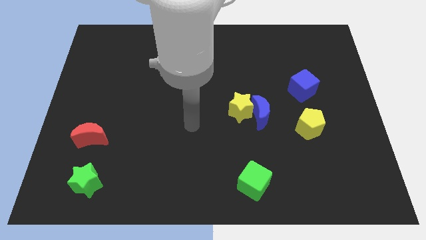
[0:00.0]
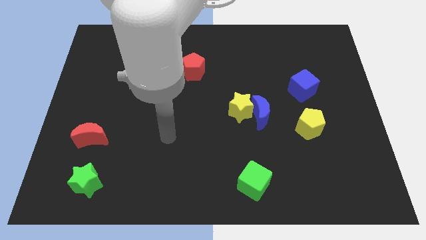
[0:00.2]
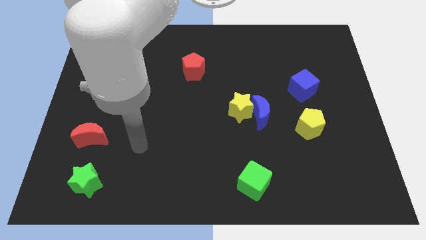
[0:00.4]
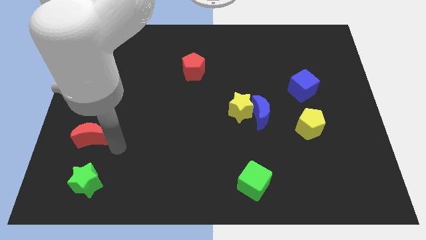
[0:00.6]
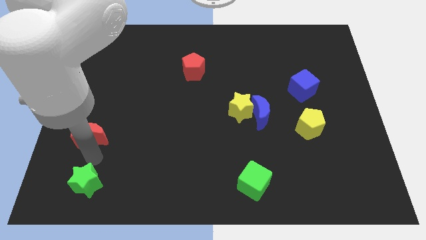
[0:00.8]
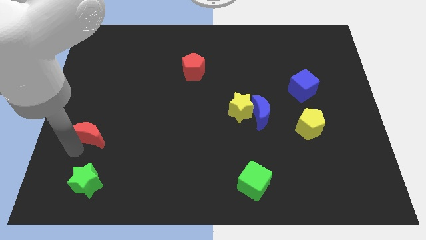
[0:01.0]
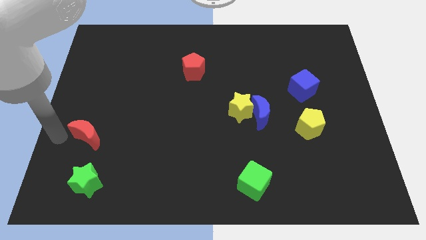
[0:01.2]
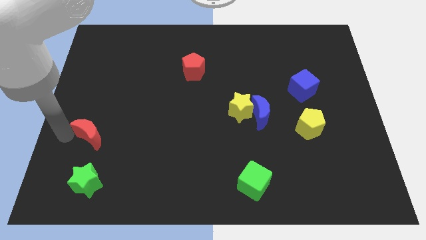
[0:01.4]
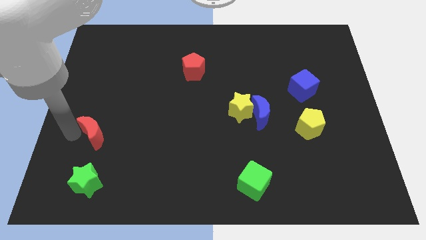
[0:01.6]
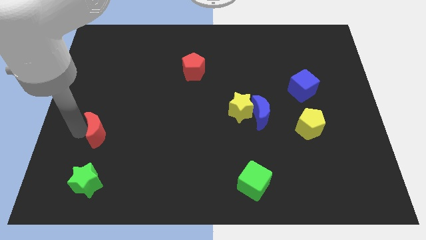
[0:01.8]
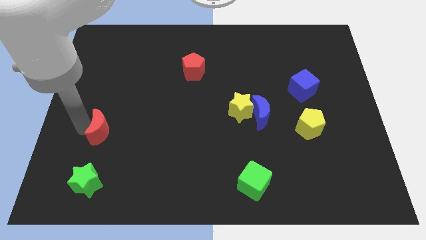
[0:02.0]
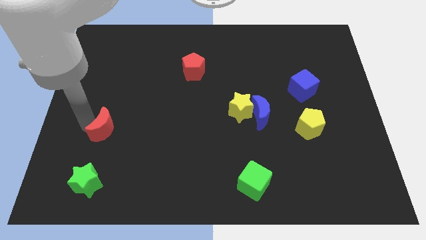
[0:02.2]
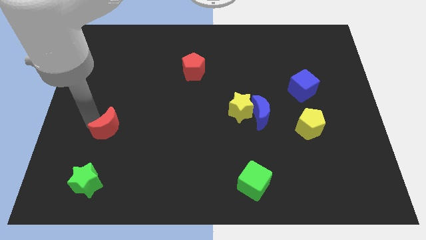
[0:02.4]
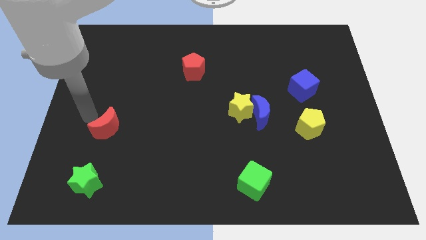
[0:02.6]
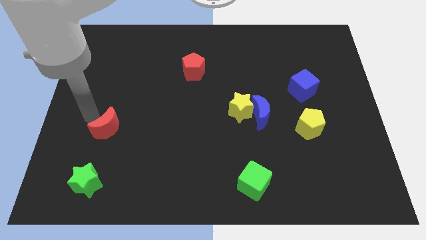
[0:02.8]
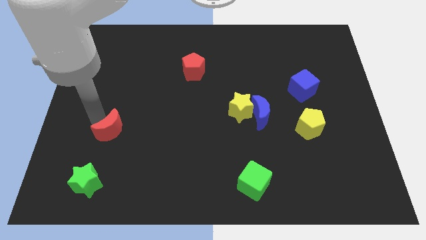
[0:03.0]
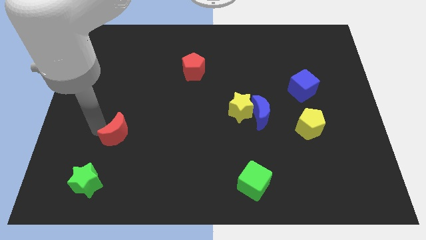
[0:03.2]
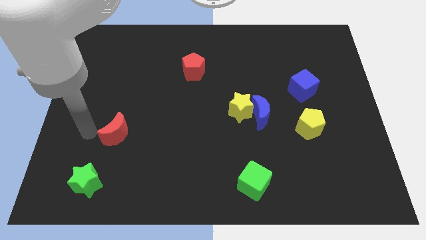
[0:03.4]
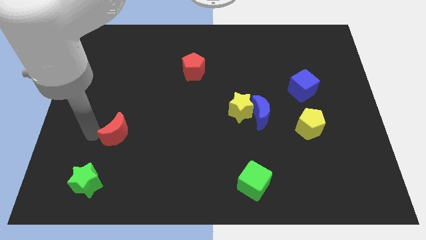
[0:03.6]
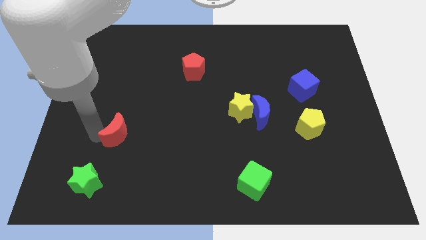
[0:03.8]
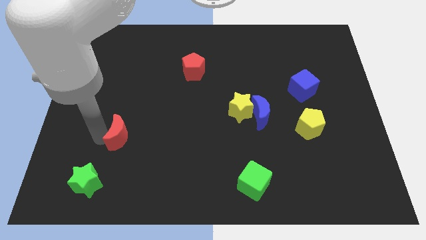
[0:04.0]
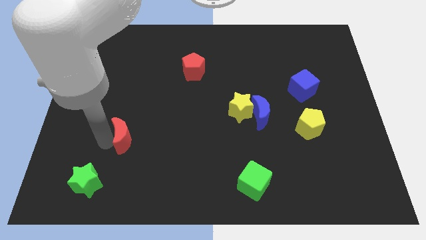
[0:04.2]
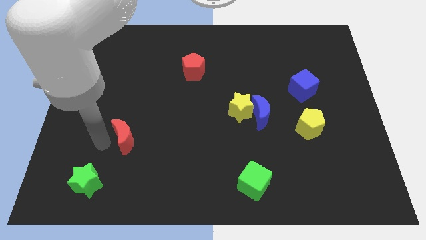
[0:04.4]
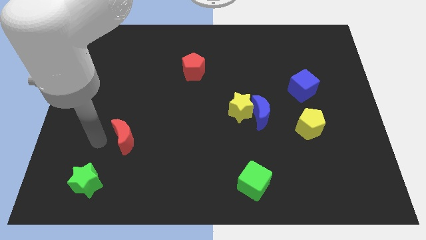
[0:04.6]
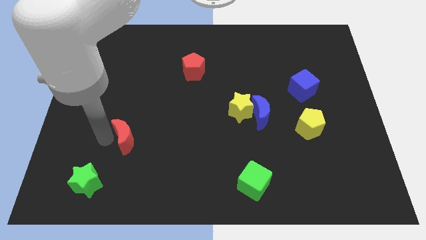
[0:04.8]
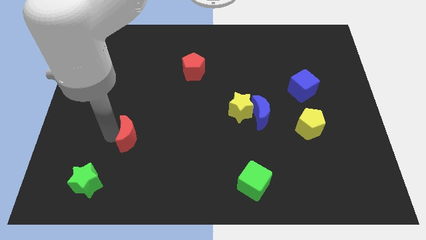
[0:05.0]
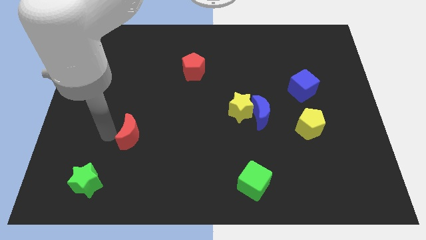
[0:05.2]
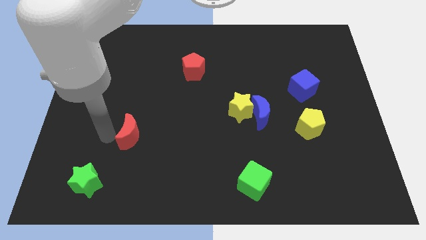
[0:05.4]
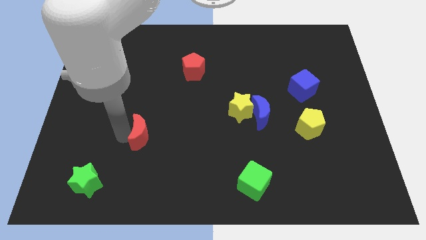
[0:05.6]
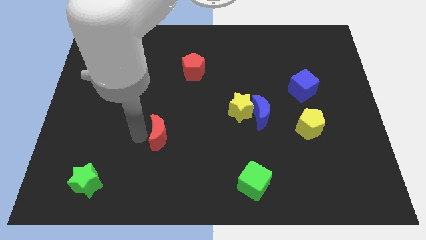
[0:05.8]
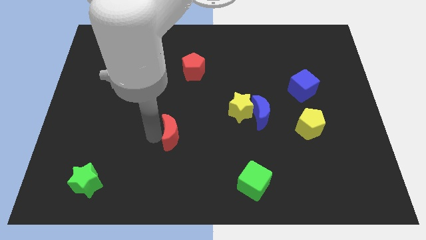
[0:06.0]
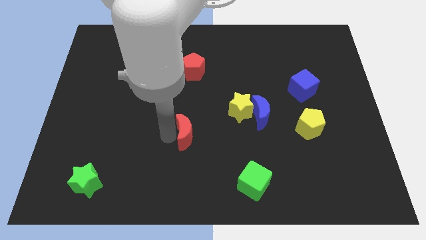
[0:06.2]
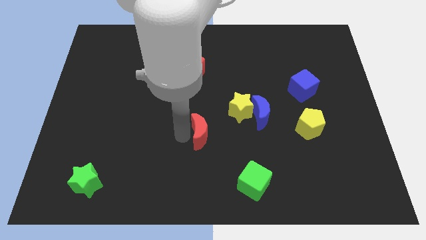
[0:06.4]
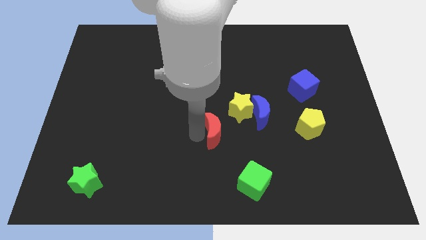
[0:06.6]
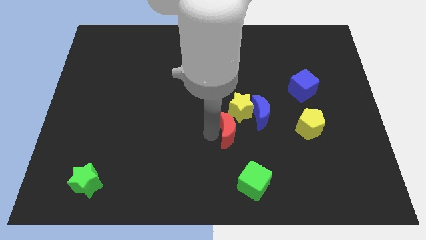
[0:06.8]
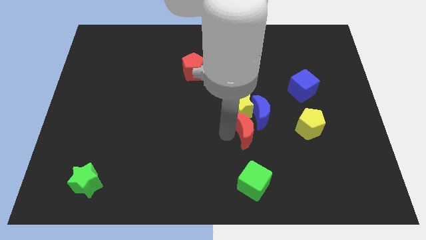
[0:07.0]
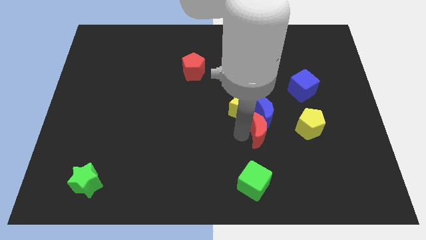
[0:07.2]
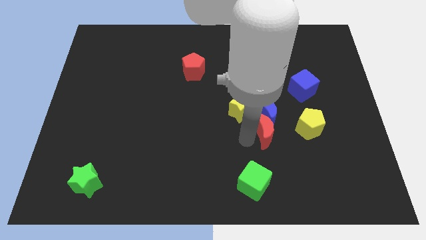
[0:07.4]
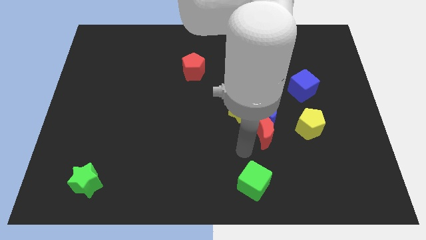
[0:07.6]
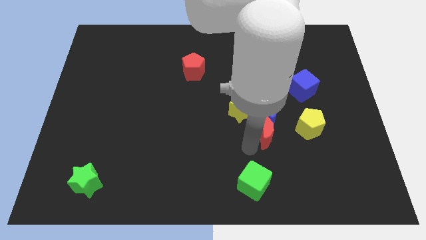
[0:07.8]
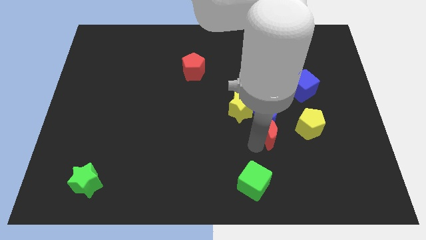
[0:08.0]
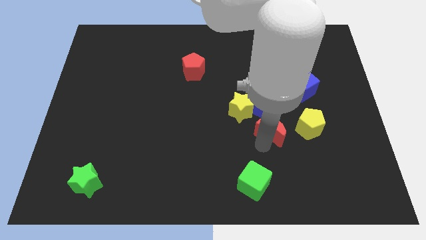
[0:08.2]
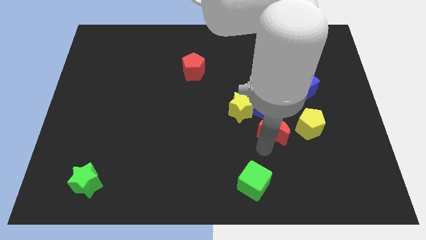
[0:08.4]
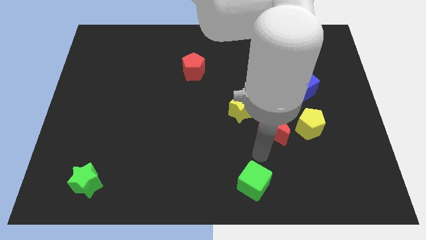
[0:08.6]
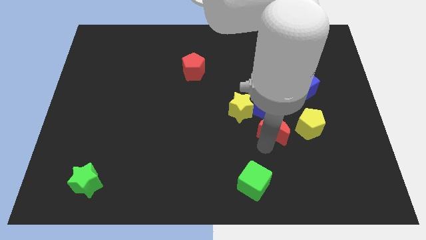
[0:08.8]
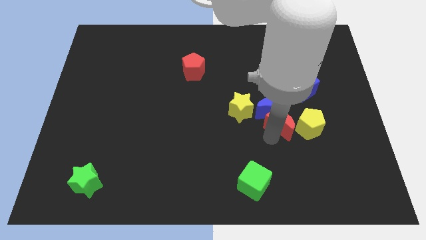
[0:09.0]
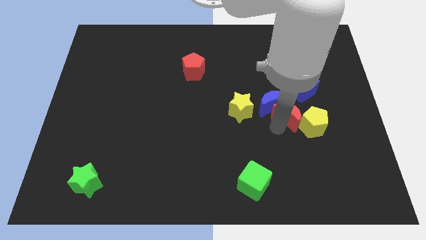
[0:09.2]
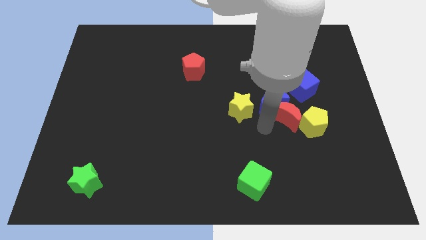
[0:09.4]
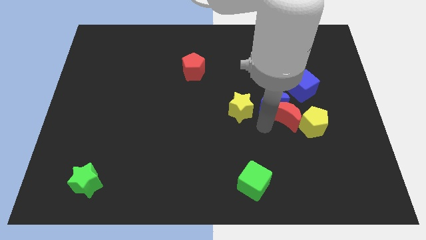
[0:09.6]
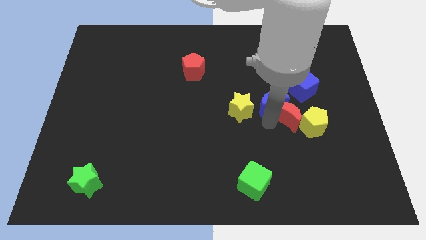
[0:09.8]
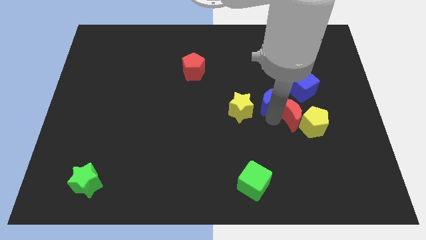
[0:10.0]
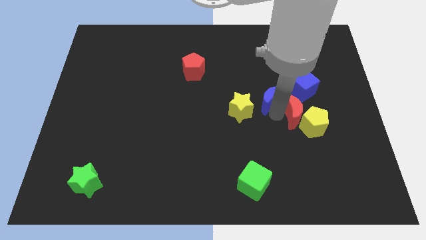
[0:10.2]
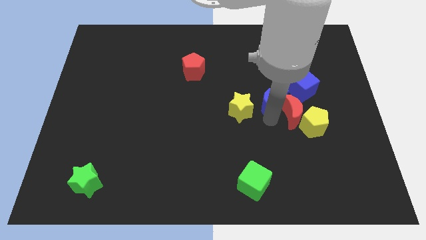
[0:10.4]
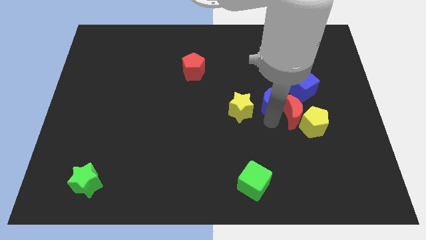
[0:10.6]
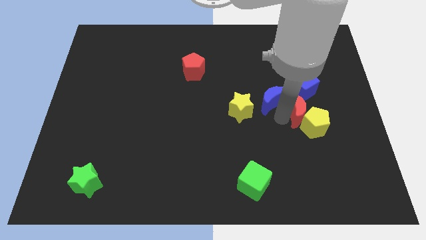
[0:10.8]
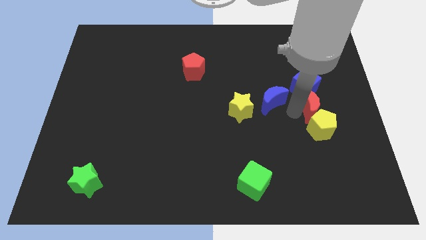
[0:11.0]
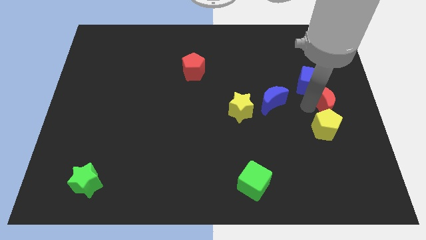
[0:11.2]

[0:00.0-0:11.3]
slide the red moon to the right side of the board

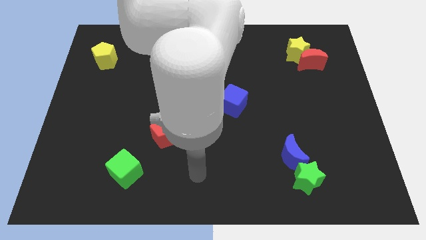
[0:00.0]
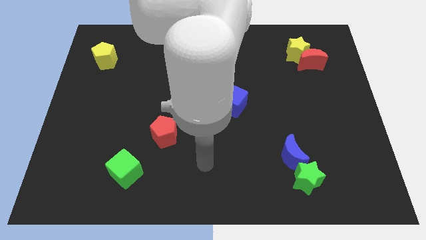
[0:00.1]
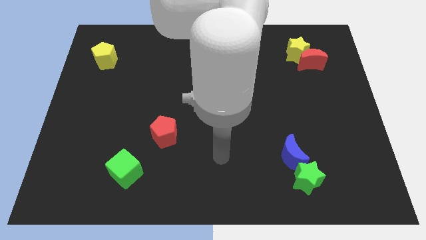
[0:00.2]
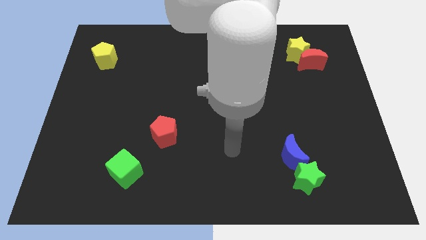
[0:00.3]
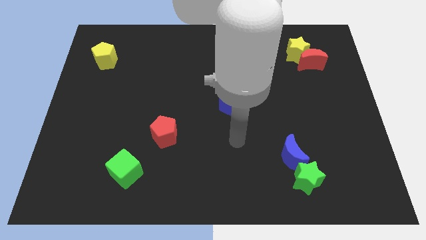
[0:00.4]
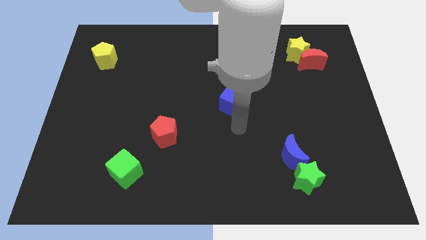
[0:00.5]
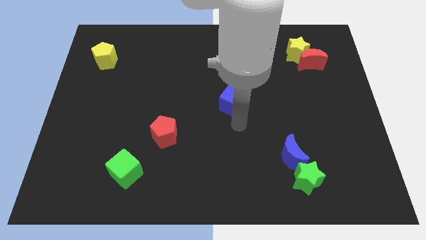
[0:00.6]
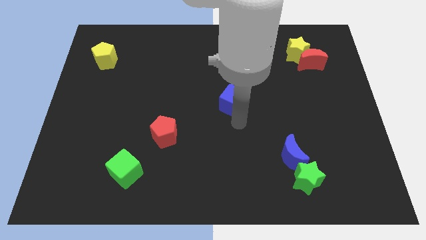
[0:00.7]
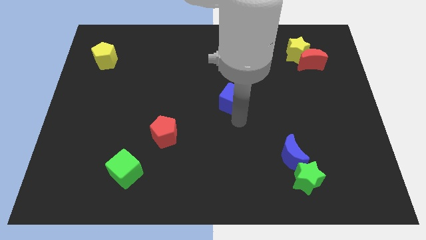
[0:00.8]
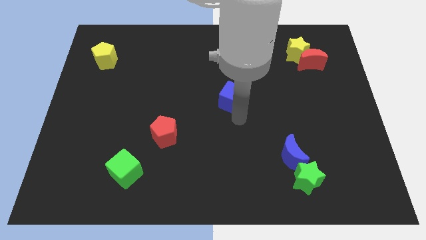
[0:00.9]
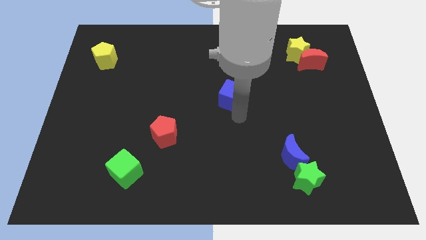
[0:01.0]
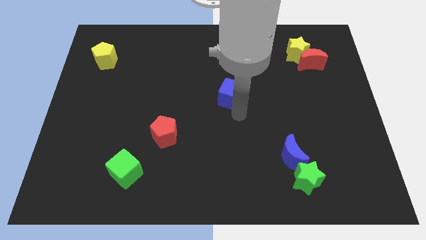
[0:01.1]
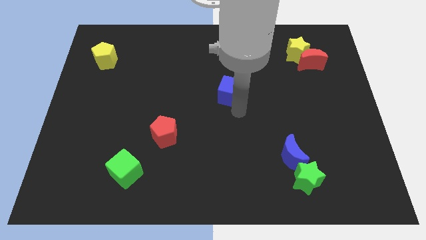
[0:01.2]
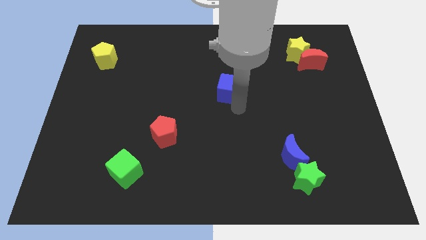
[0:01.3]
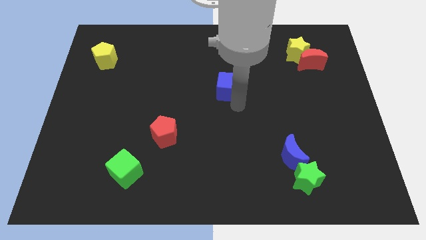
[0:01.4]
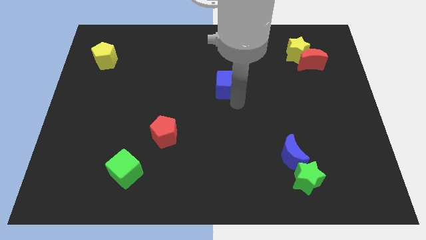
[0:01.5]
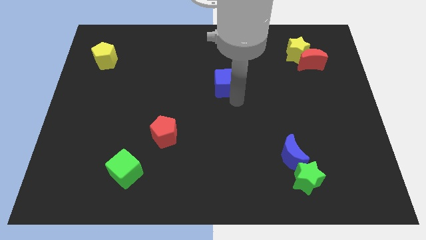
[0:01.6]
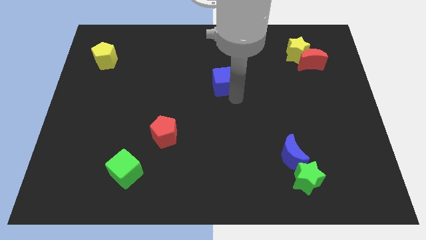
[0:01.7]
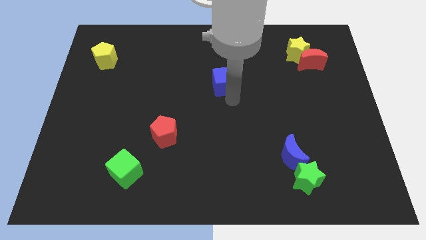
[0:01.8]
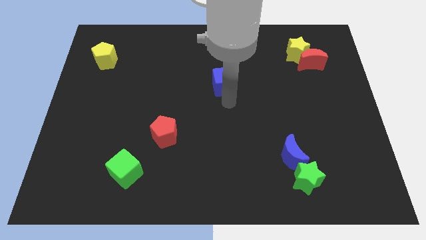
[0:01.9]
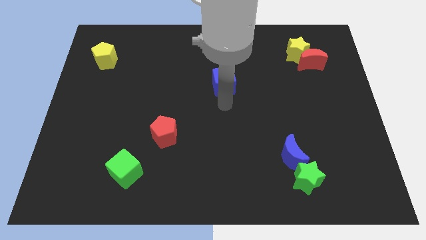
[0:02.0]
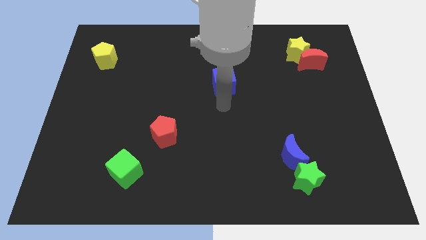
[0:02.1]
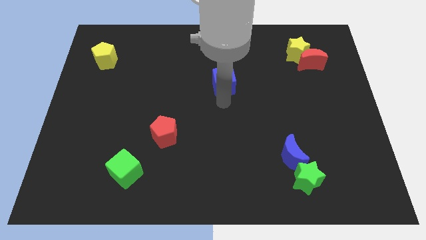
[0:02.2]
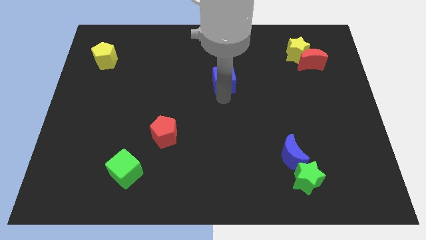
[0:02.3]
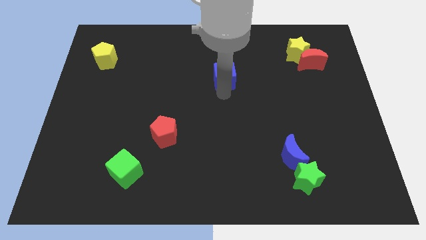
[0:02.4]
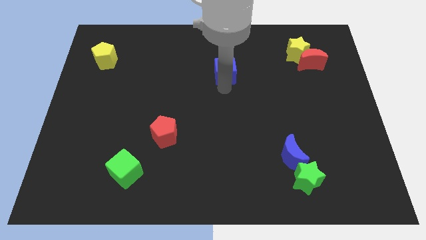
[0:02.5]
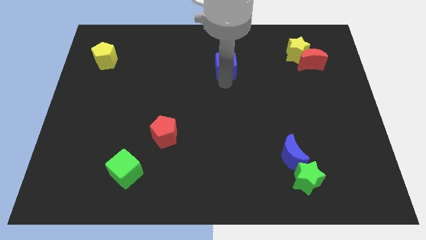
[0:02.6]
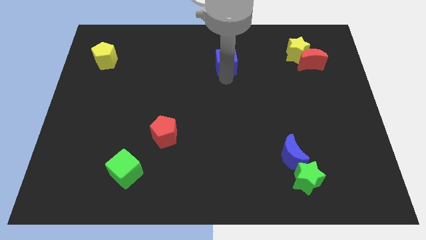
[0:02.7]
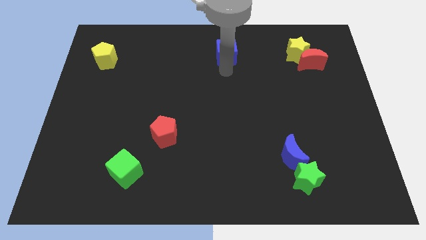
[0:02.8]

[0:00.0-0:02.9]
put the blue cube to the top
